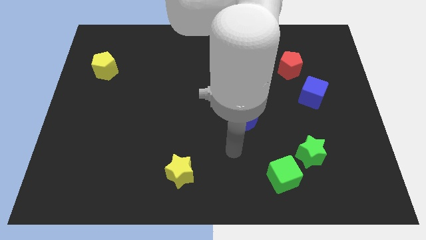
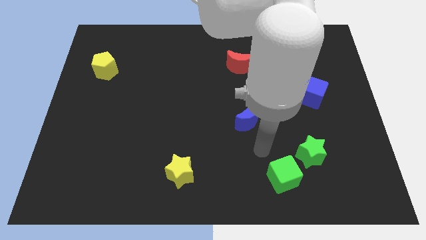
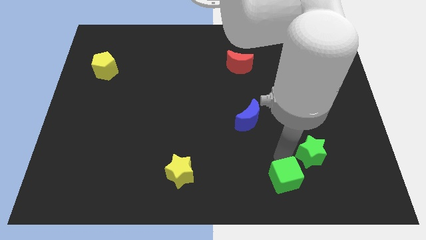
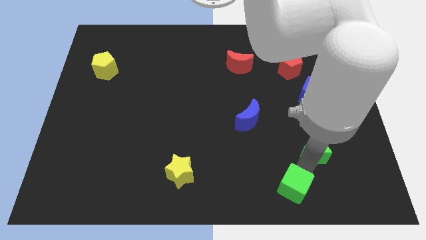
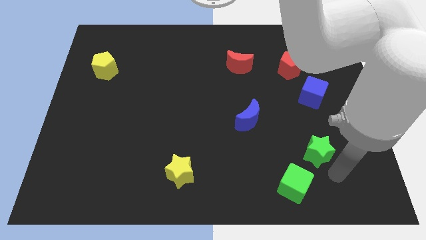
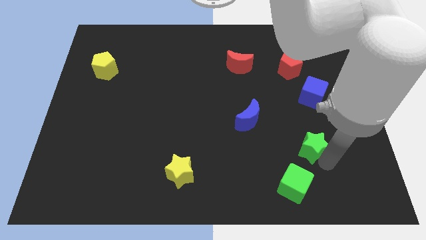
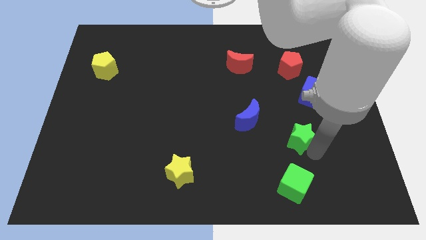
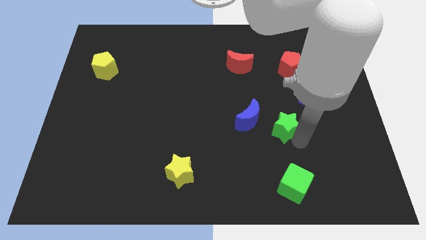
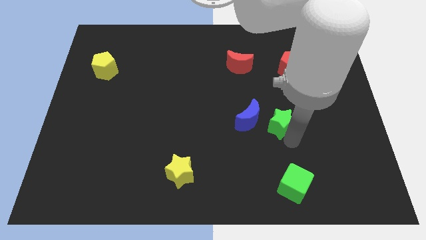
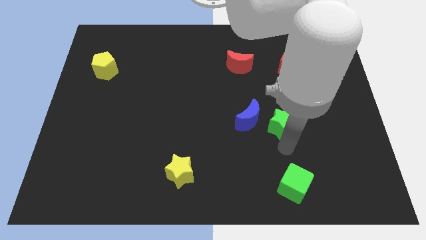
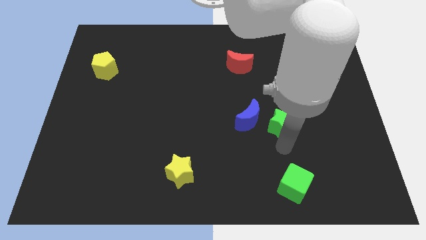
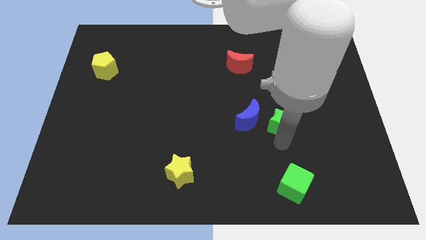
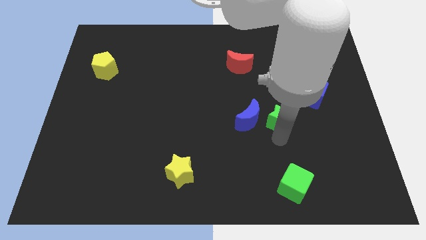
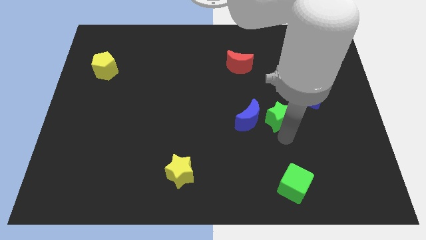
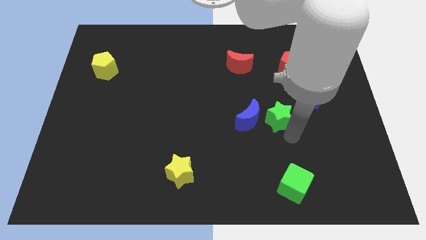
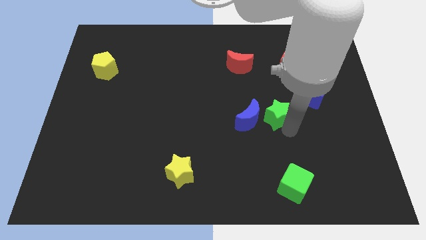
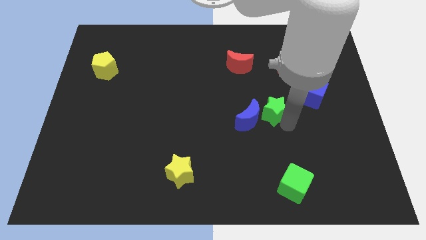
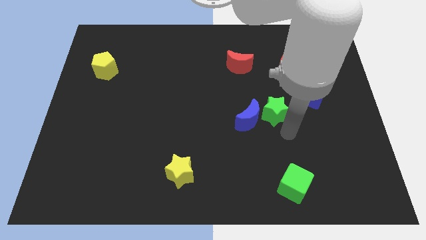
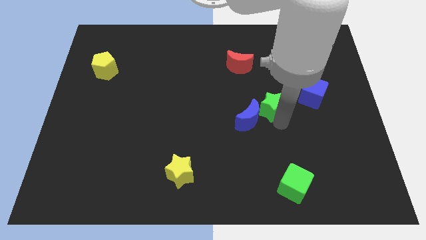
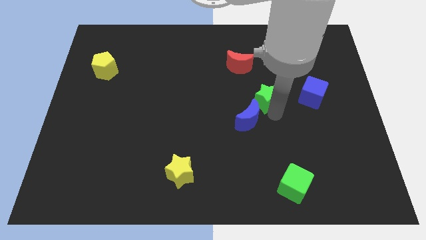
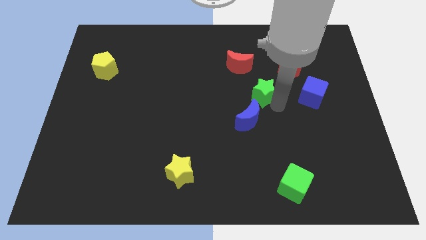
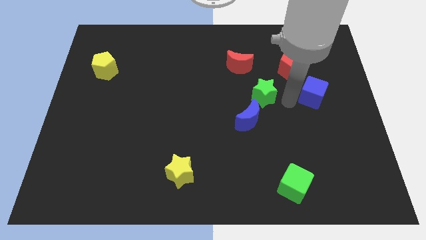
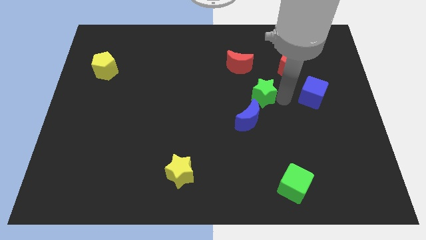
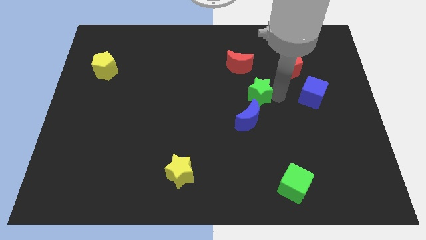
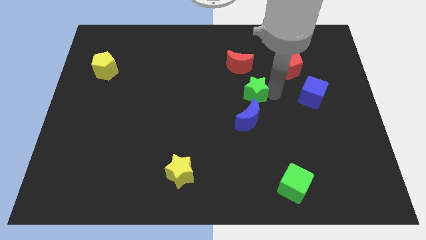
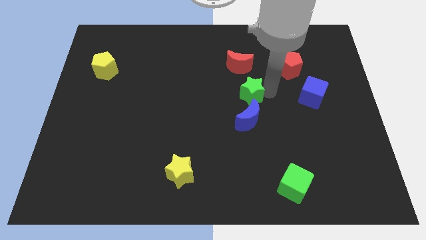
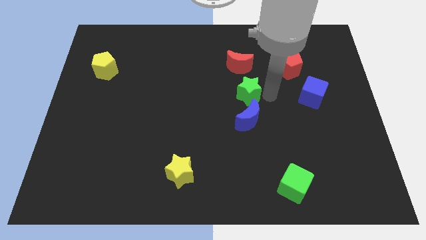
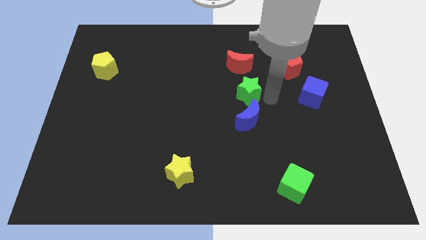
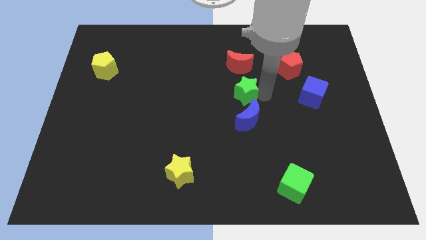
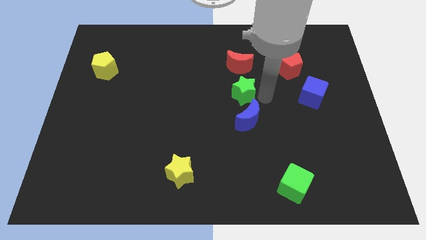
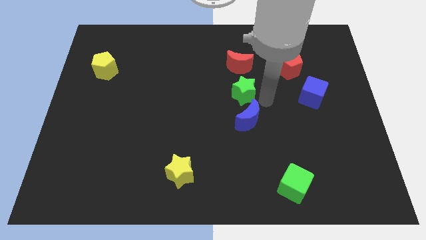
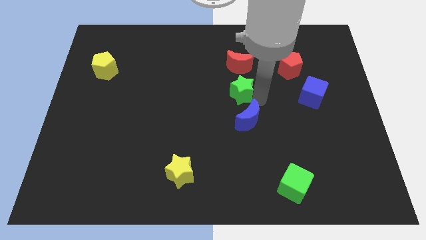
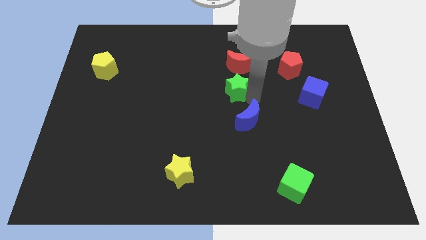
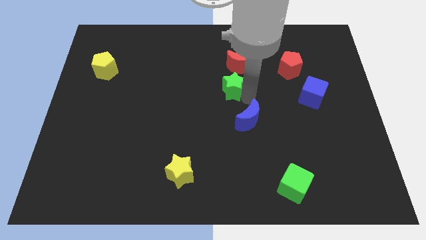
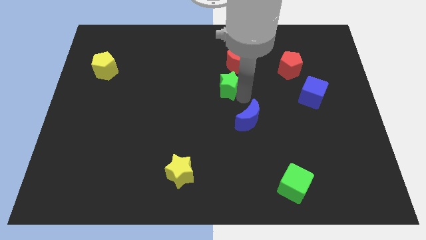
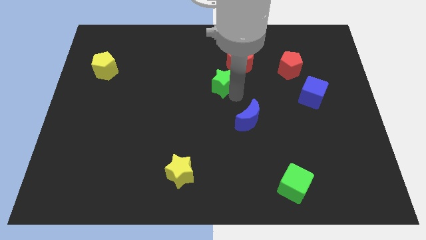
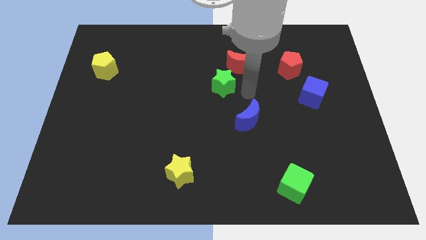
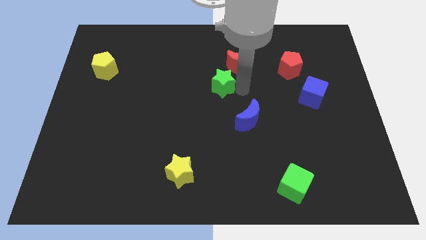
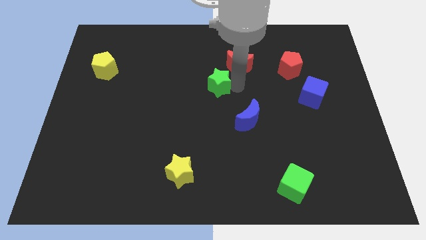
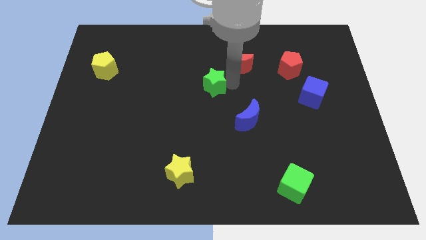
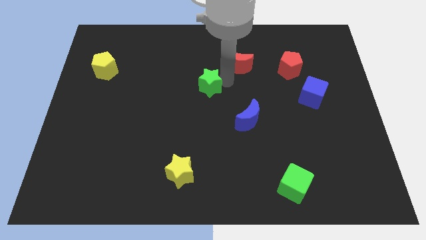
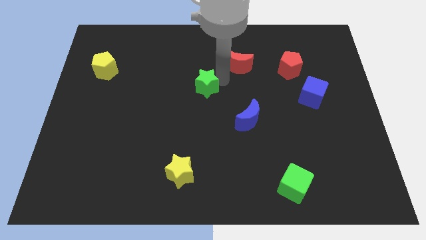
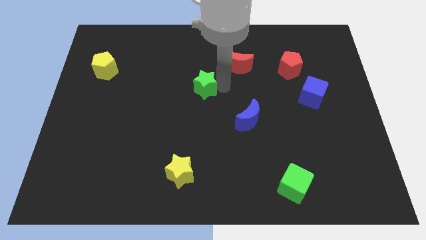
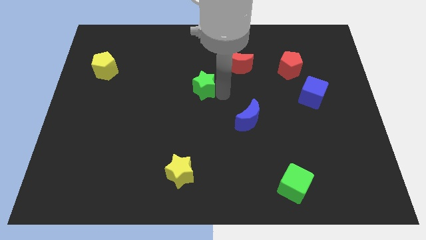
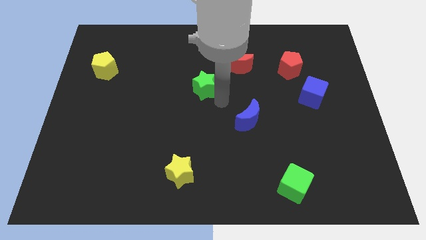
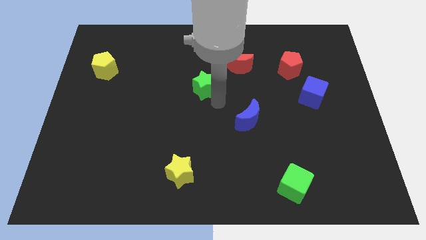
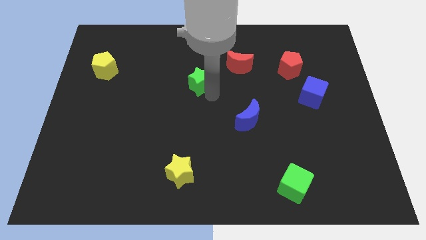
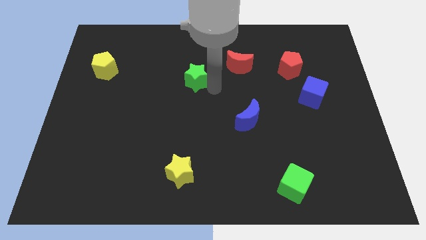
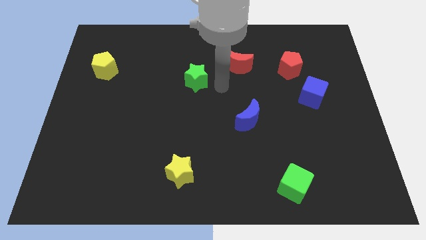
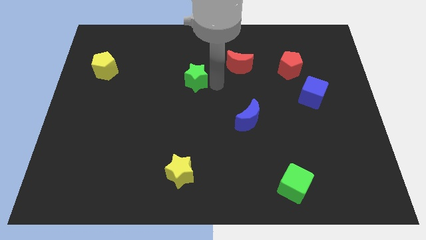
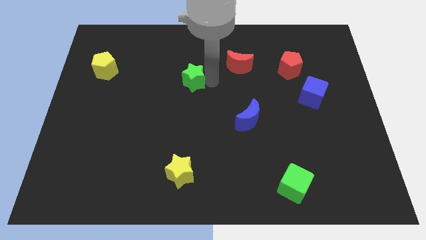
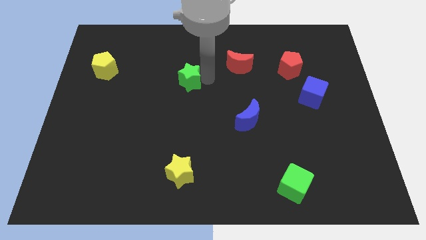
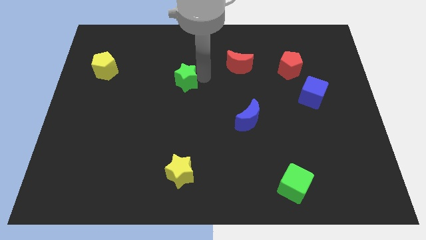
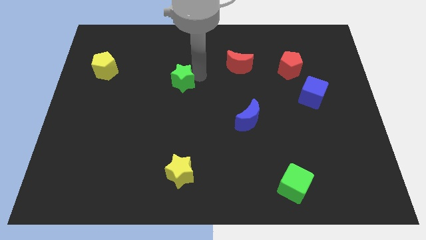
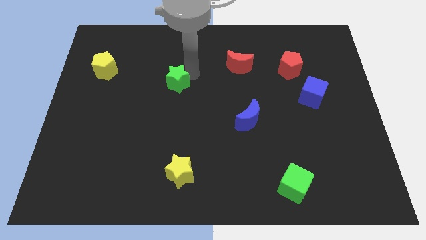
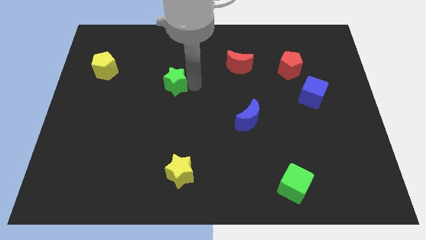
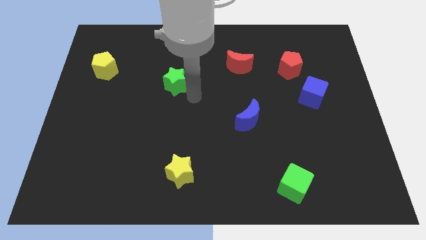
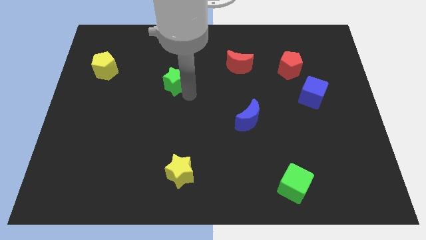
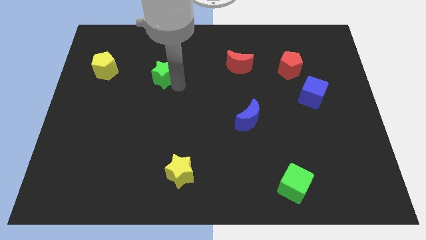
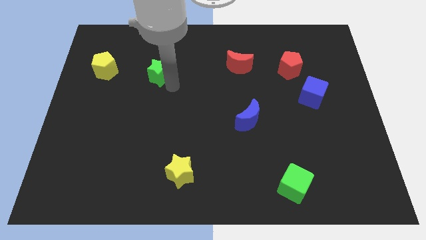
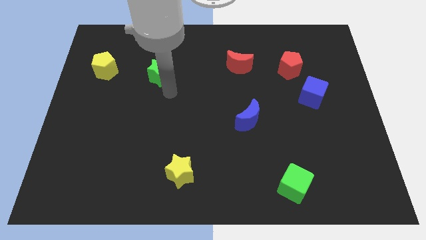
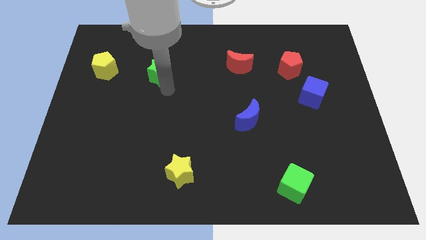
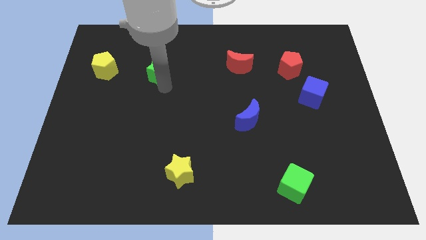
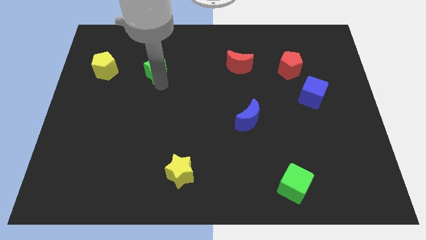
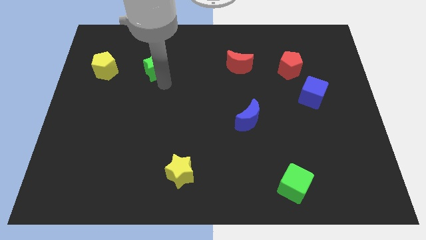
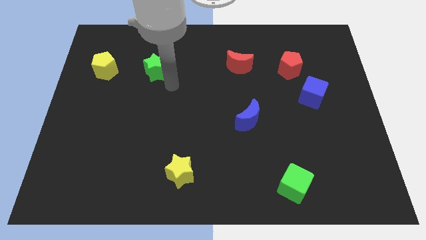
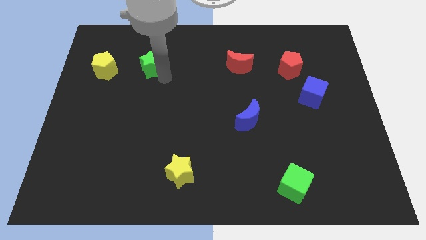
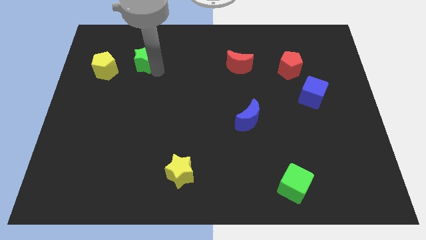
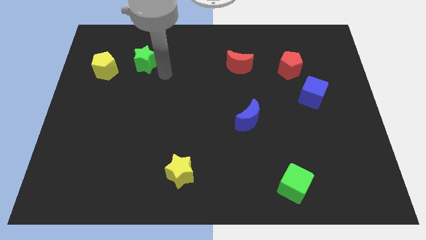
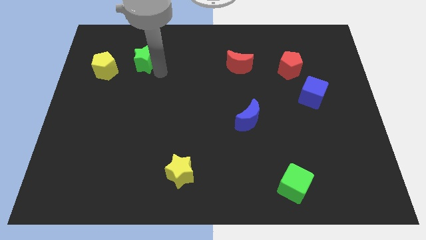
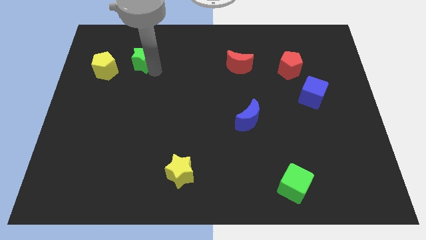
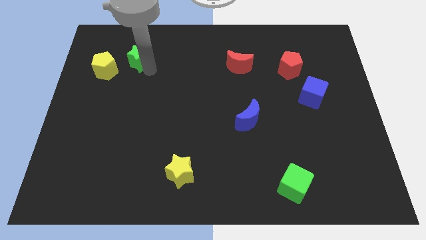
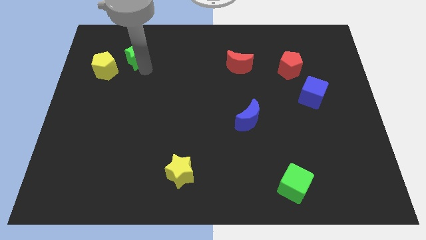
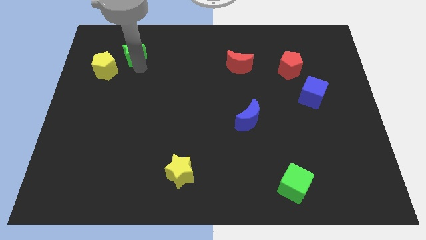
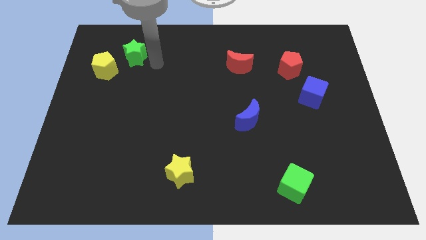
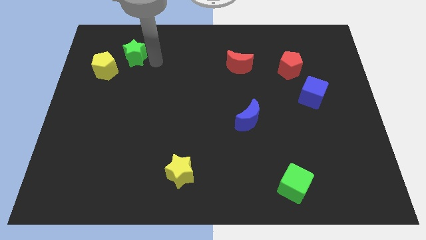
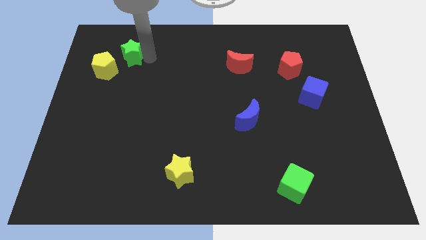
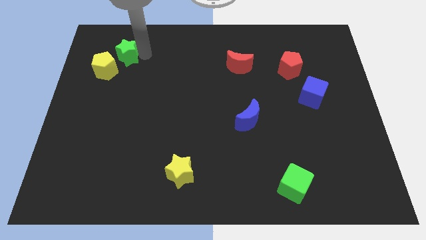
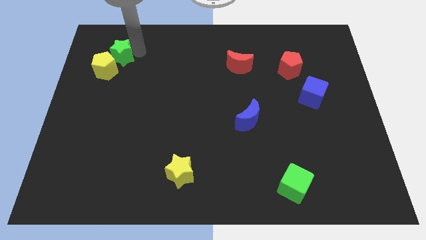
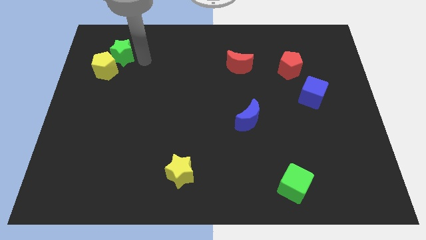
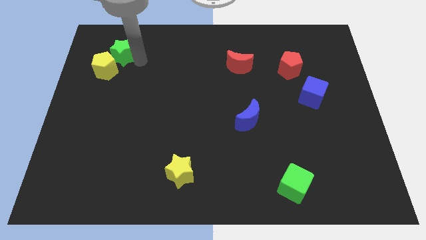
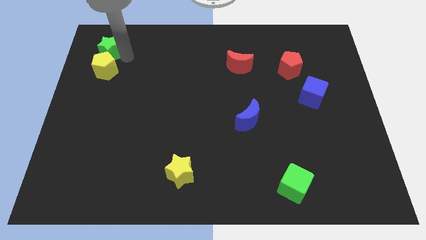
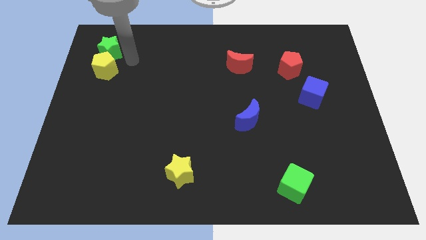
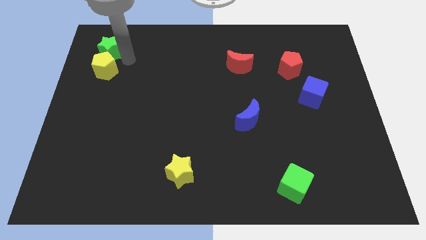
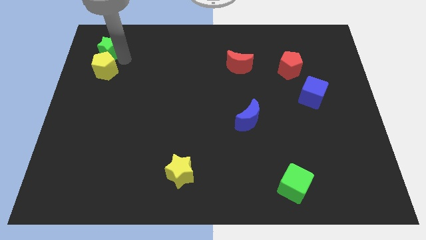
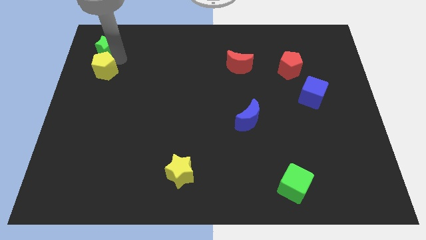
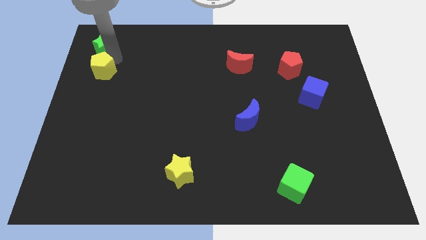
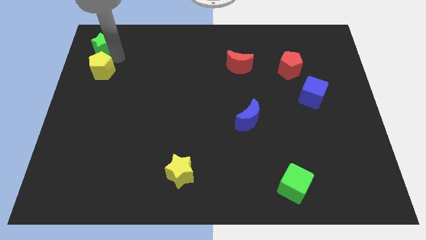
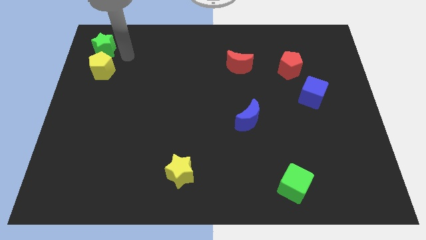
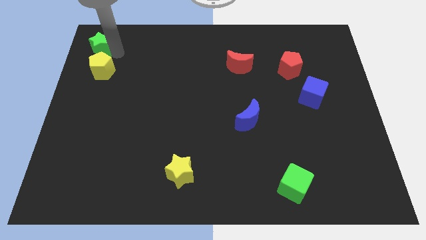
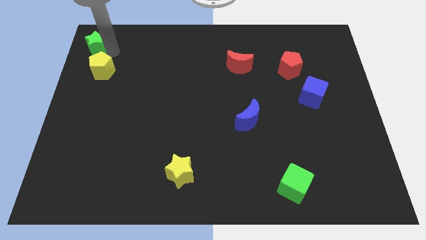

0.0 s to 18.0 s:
move the green star to the top left of the board
